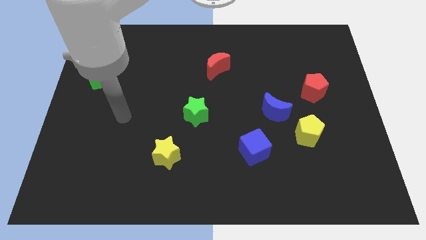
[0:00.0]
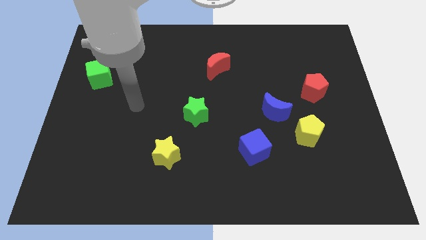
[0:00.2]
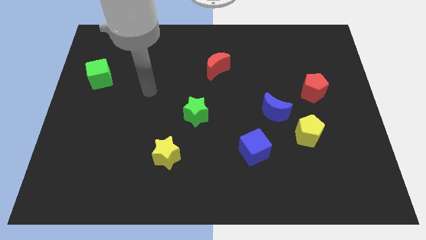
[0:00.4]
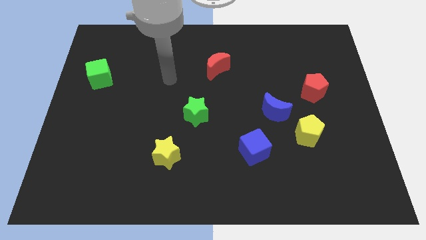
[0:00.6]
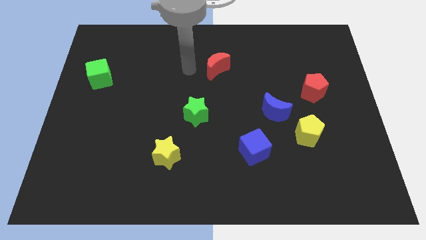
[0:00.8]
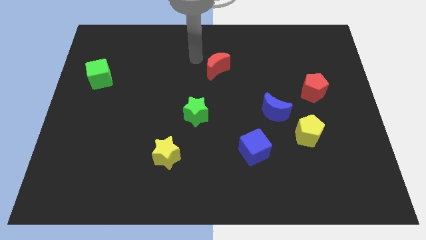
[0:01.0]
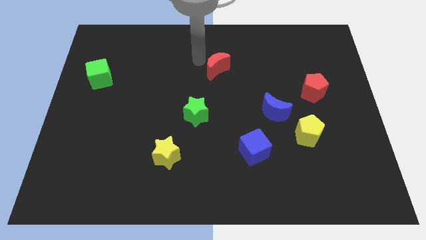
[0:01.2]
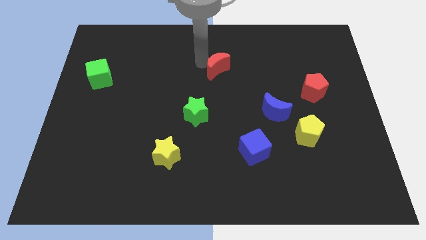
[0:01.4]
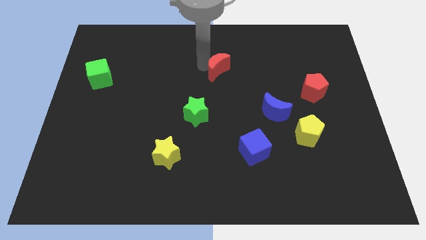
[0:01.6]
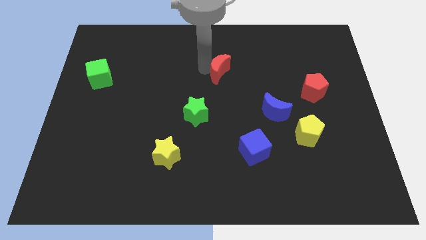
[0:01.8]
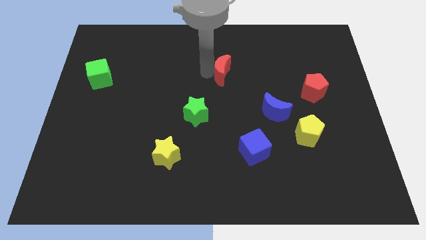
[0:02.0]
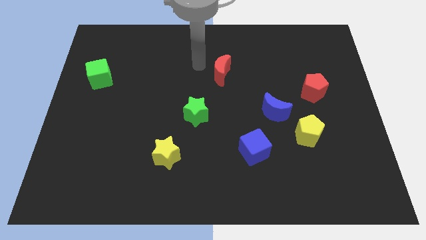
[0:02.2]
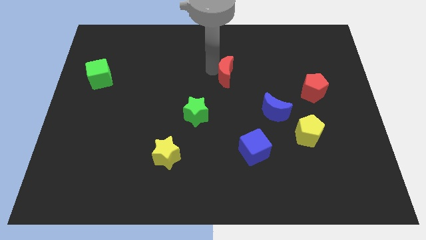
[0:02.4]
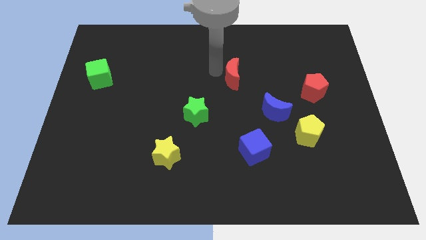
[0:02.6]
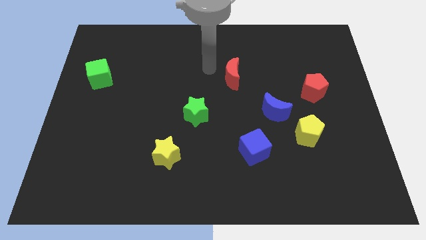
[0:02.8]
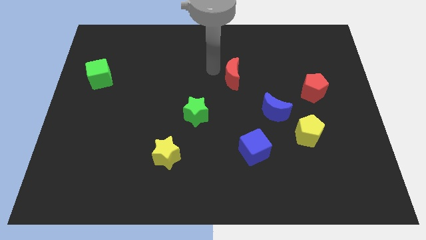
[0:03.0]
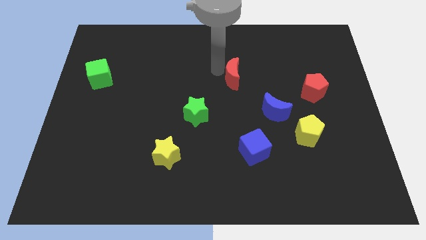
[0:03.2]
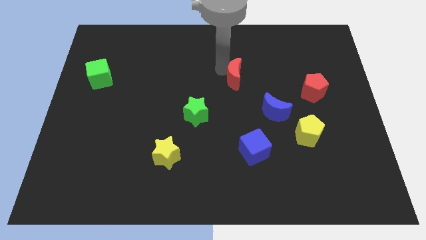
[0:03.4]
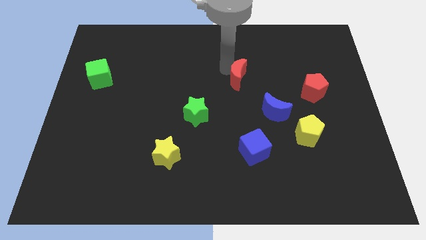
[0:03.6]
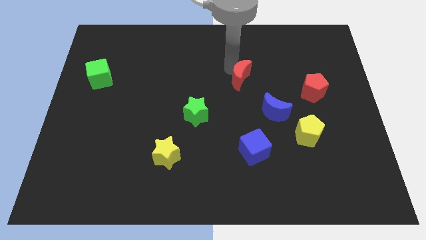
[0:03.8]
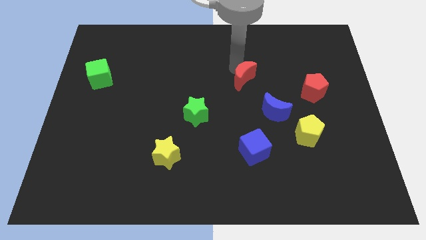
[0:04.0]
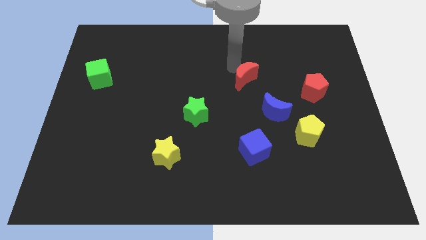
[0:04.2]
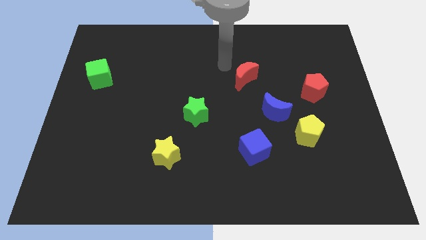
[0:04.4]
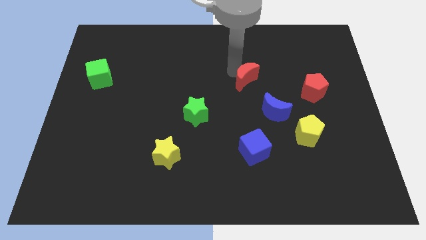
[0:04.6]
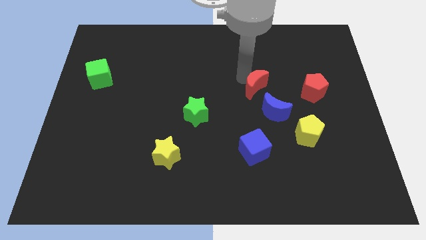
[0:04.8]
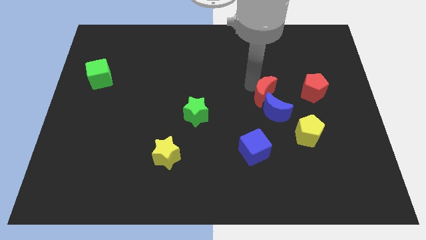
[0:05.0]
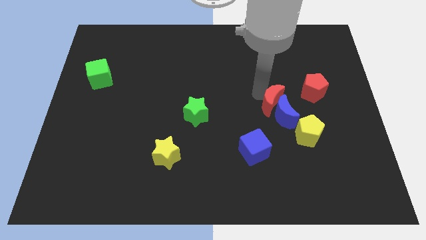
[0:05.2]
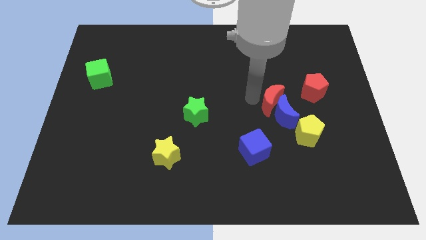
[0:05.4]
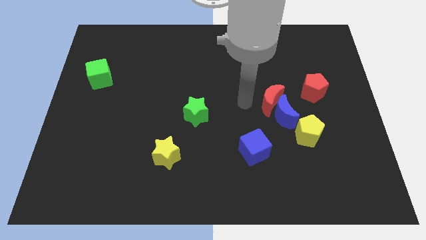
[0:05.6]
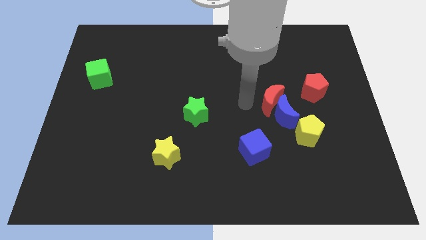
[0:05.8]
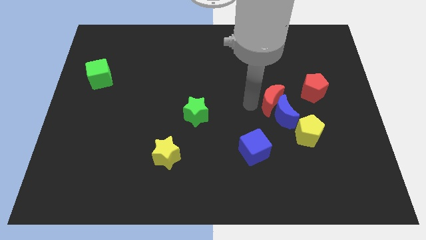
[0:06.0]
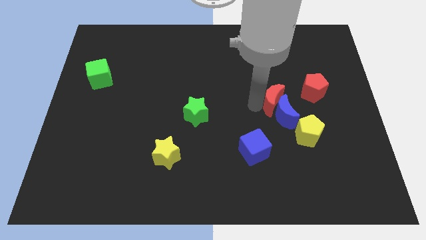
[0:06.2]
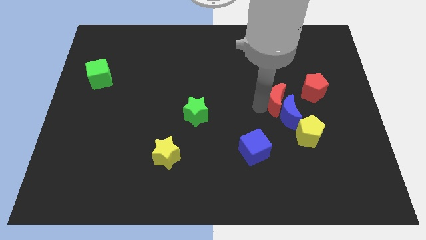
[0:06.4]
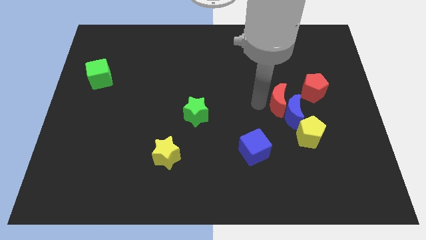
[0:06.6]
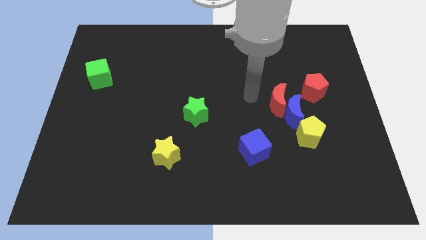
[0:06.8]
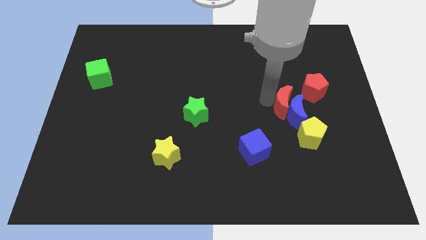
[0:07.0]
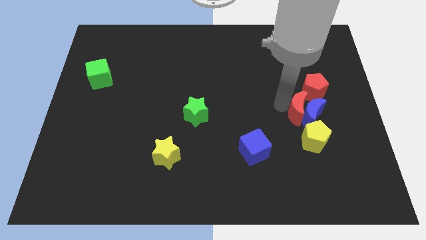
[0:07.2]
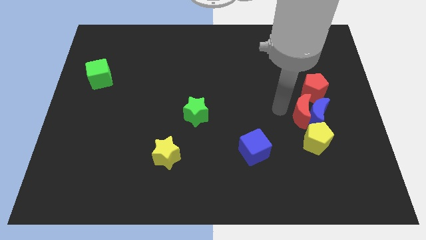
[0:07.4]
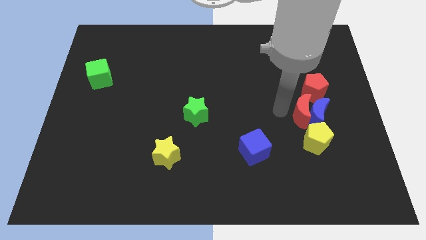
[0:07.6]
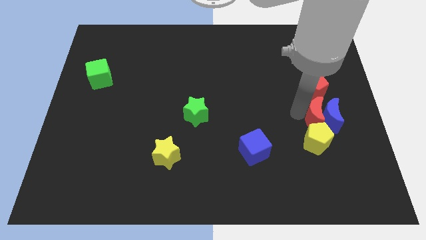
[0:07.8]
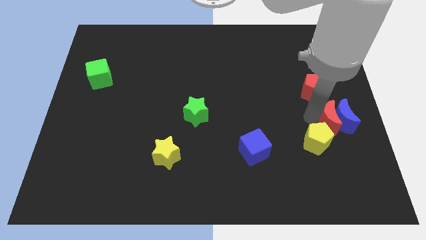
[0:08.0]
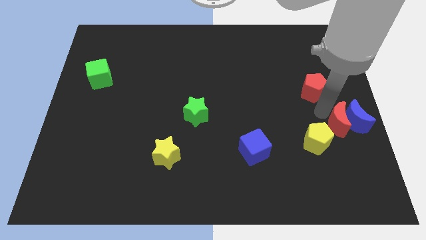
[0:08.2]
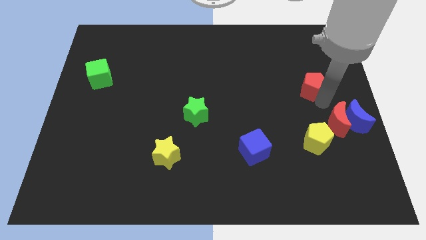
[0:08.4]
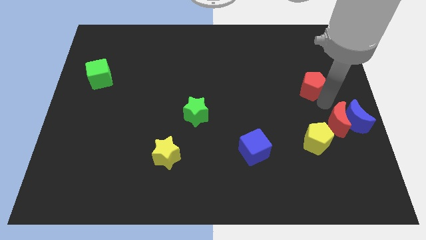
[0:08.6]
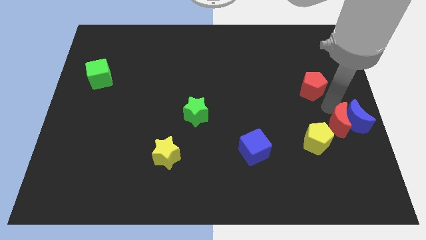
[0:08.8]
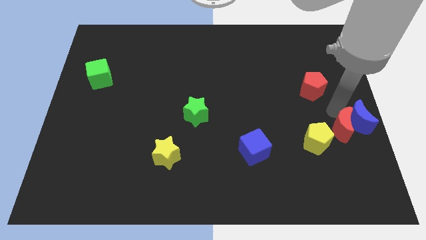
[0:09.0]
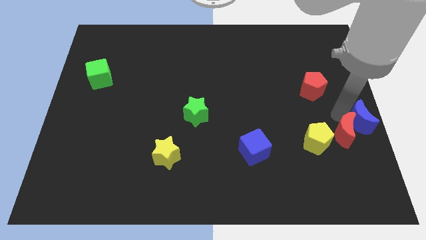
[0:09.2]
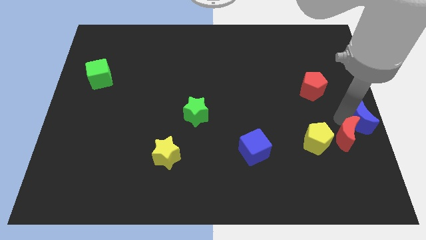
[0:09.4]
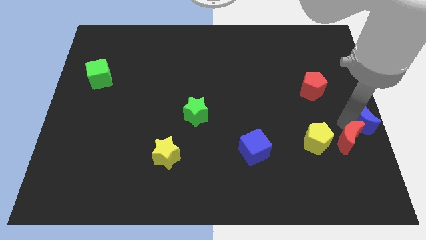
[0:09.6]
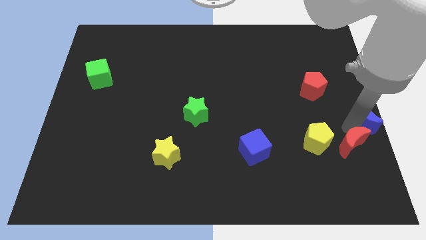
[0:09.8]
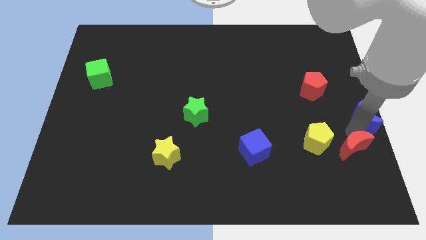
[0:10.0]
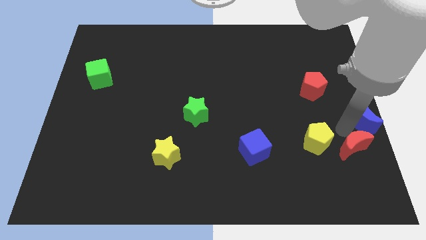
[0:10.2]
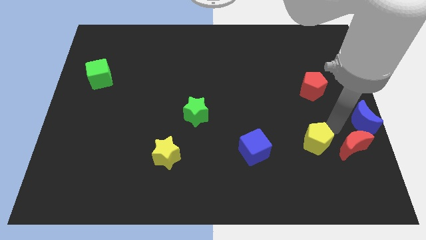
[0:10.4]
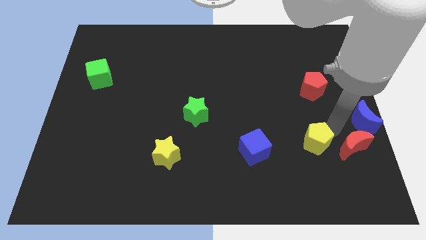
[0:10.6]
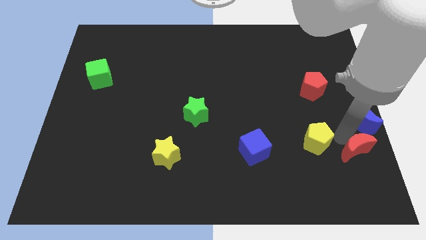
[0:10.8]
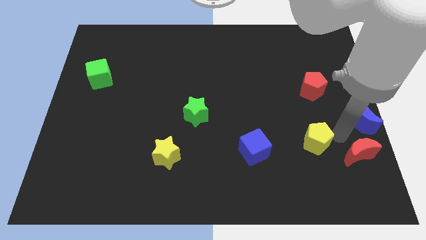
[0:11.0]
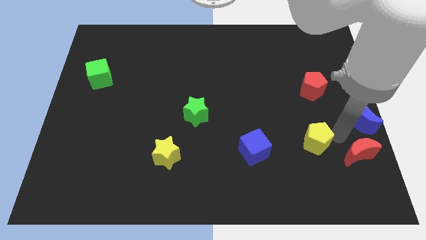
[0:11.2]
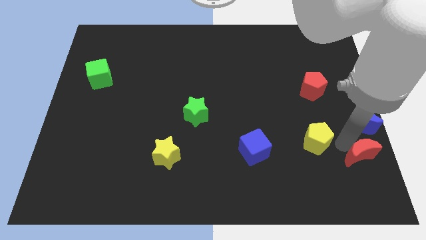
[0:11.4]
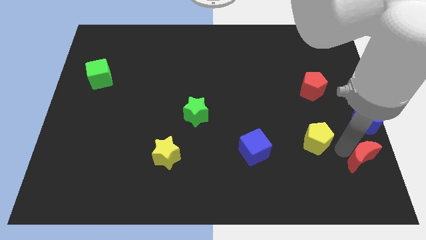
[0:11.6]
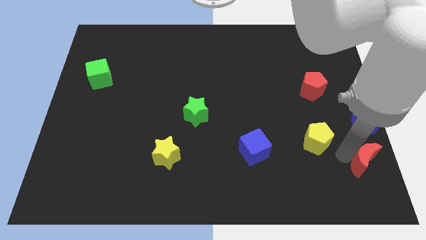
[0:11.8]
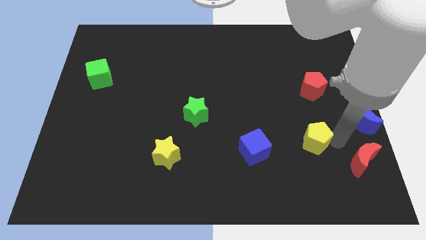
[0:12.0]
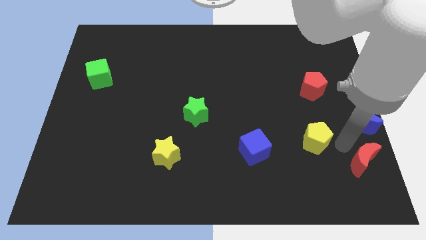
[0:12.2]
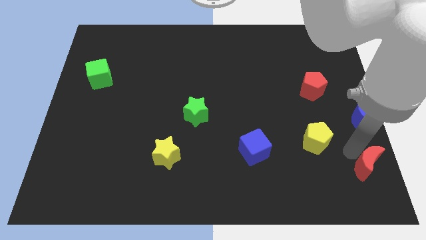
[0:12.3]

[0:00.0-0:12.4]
slide the red moon to the bottom right of the board

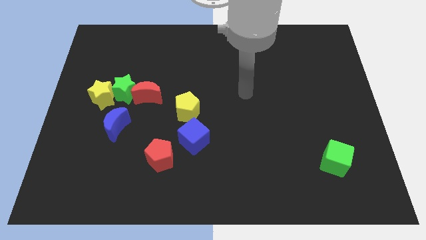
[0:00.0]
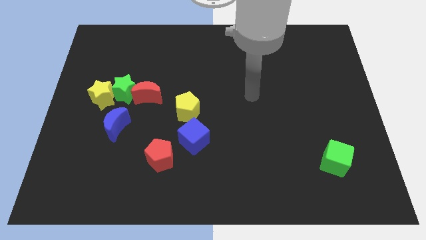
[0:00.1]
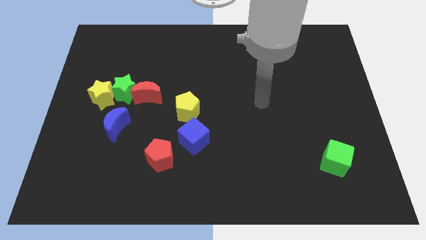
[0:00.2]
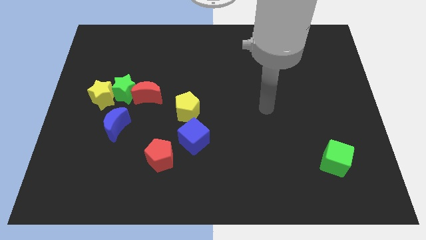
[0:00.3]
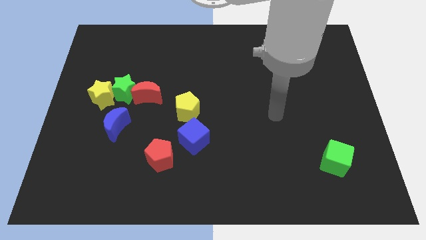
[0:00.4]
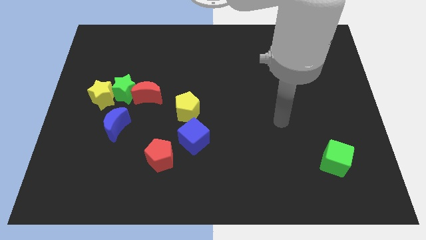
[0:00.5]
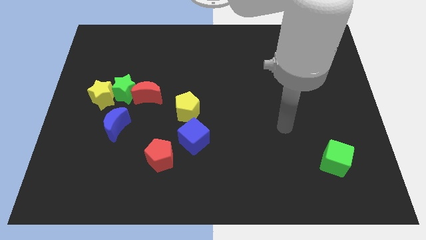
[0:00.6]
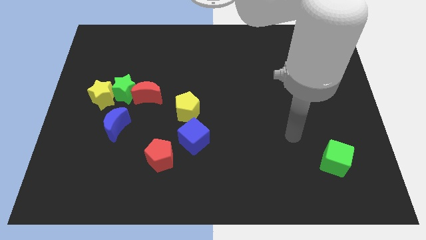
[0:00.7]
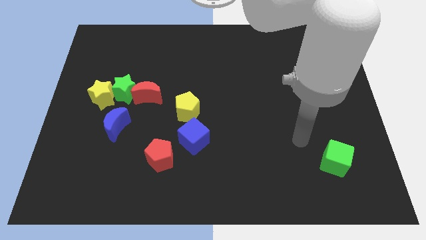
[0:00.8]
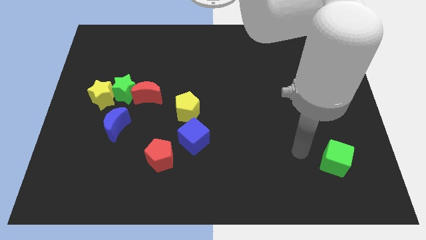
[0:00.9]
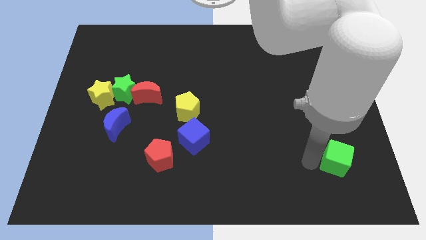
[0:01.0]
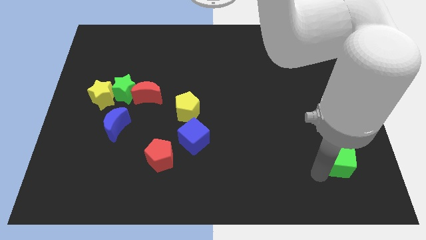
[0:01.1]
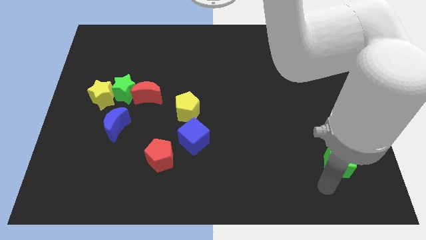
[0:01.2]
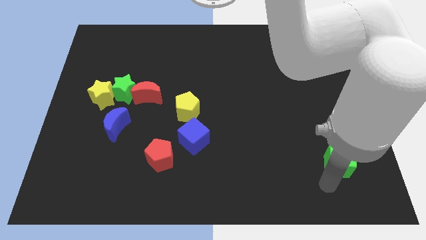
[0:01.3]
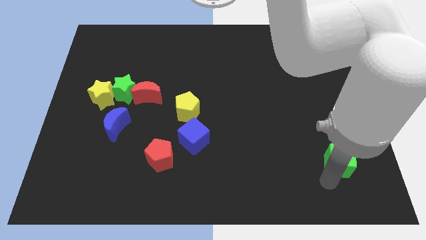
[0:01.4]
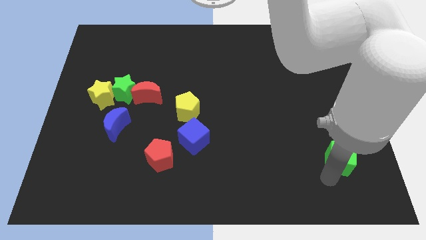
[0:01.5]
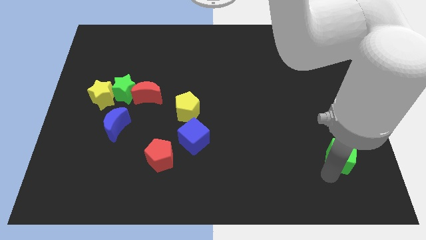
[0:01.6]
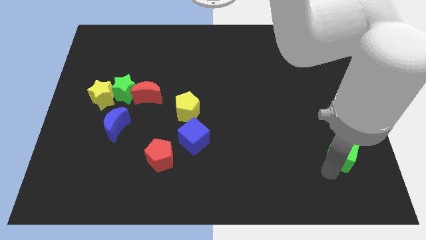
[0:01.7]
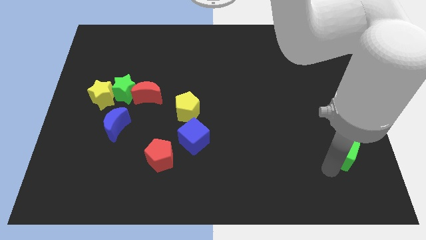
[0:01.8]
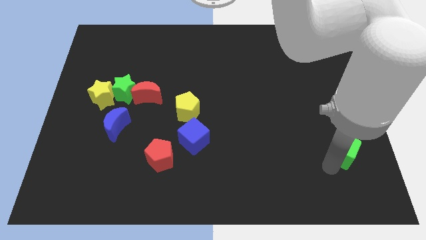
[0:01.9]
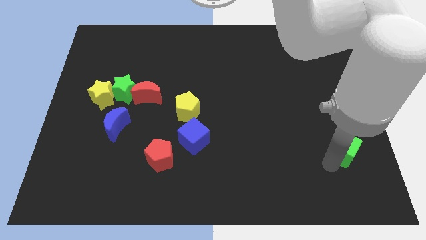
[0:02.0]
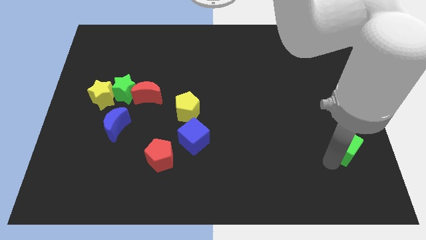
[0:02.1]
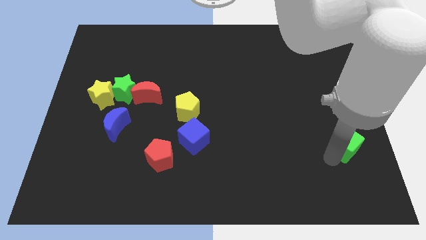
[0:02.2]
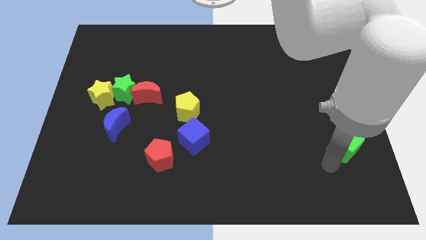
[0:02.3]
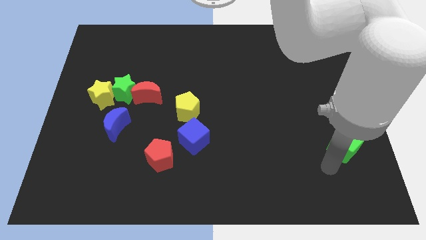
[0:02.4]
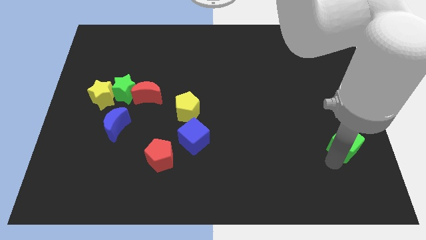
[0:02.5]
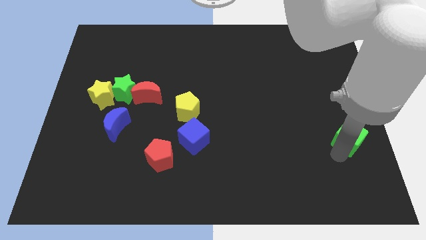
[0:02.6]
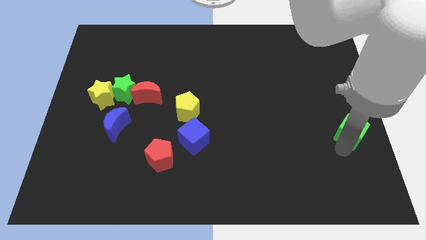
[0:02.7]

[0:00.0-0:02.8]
put the green cube to the center right
